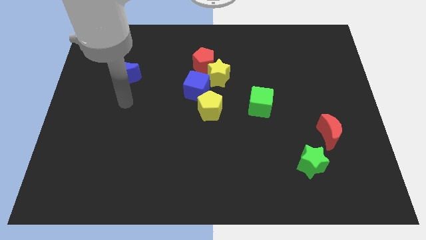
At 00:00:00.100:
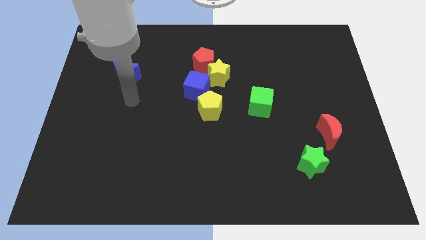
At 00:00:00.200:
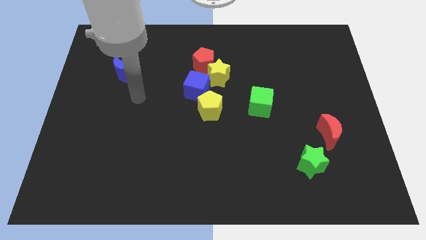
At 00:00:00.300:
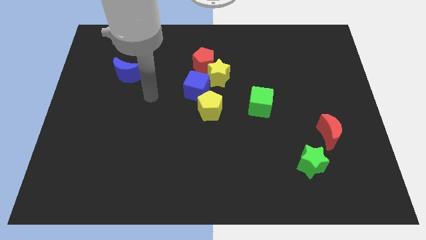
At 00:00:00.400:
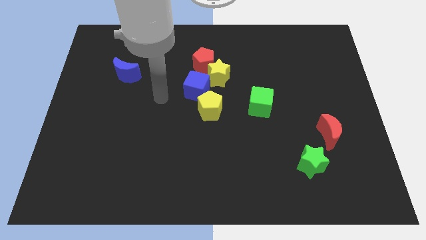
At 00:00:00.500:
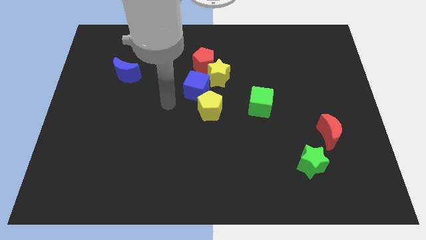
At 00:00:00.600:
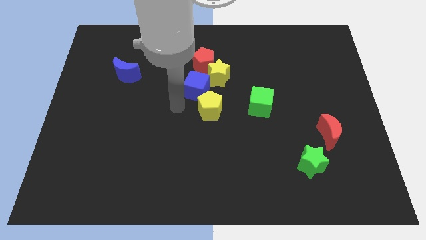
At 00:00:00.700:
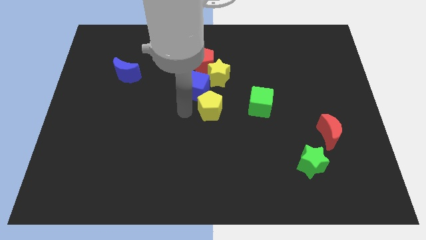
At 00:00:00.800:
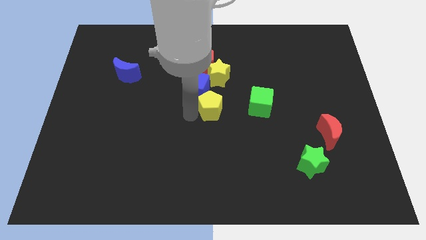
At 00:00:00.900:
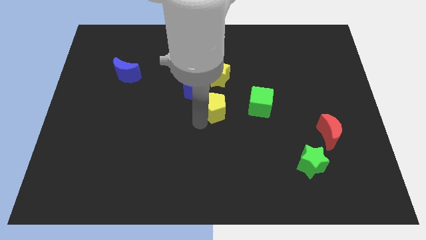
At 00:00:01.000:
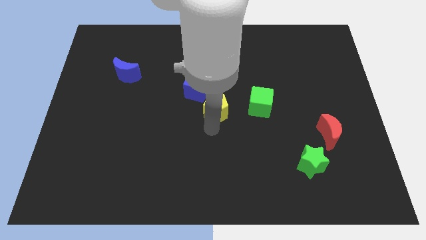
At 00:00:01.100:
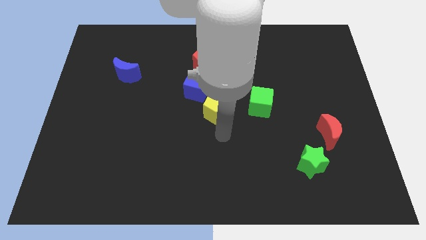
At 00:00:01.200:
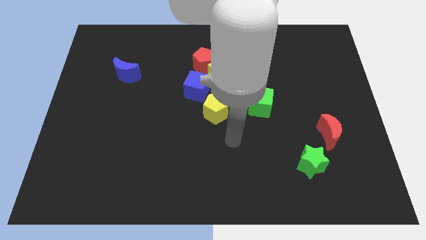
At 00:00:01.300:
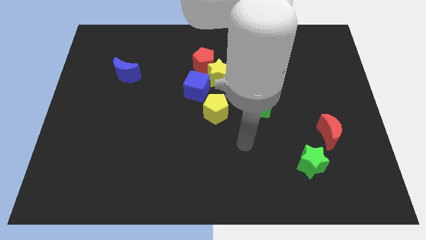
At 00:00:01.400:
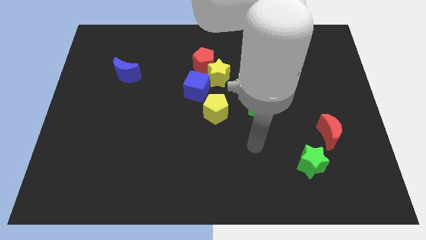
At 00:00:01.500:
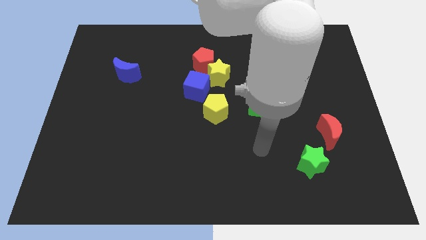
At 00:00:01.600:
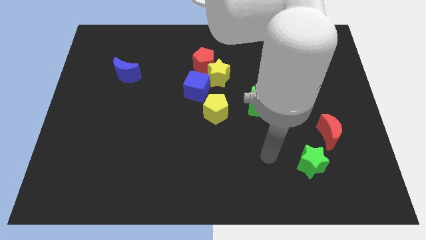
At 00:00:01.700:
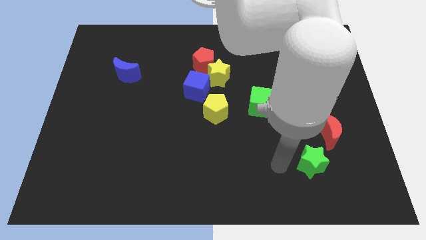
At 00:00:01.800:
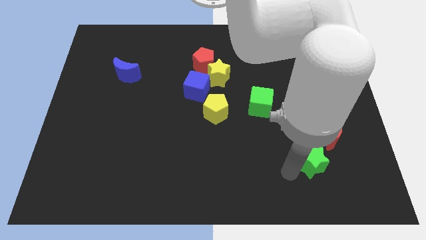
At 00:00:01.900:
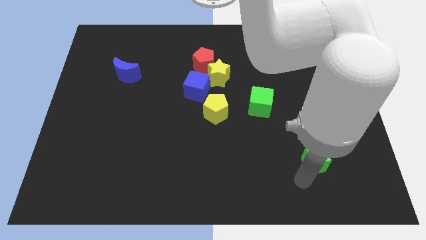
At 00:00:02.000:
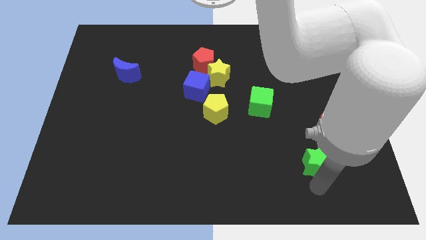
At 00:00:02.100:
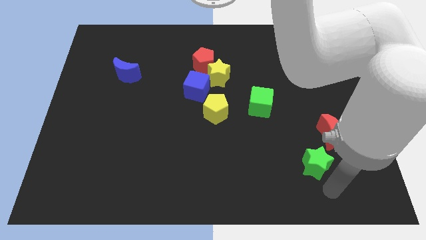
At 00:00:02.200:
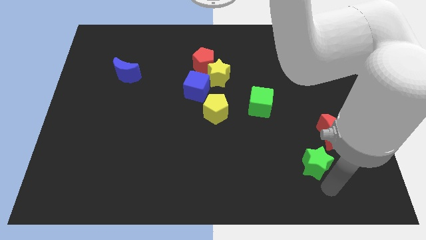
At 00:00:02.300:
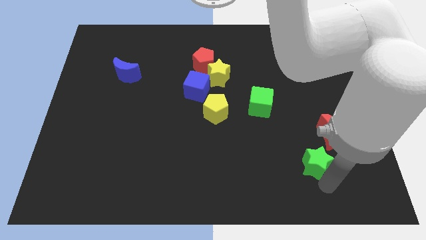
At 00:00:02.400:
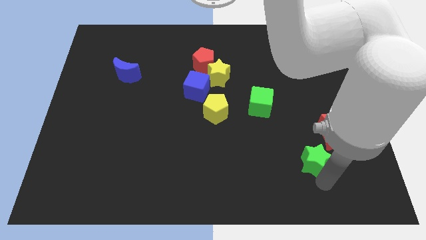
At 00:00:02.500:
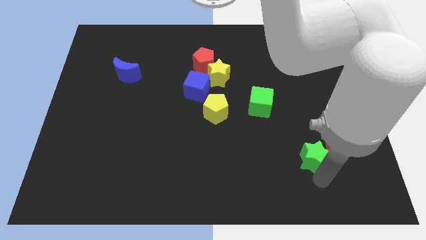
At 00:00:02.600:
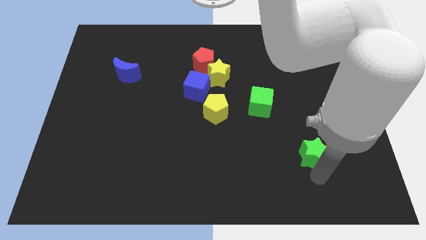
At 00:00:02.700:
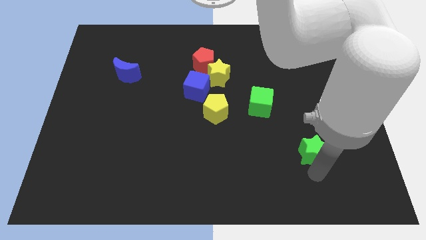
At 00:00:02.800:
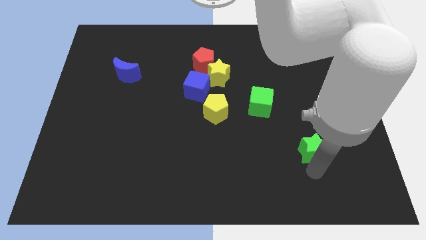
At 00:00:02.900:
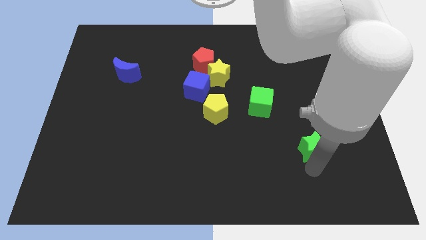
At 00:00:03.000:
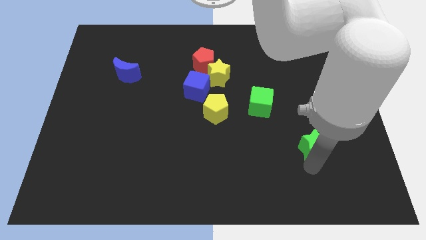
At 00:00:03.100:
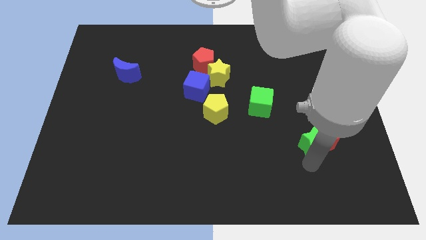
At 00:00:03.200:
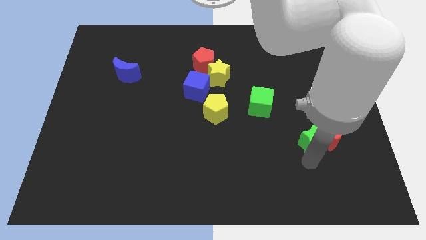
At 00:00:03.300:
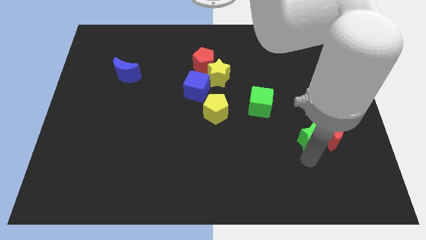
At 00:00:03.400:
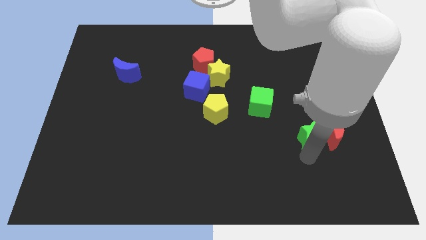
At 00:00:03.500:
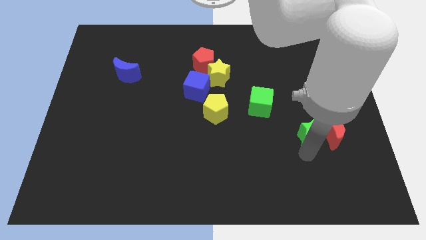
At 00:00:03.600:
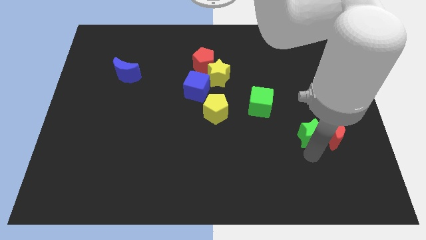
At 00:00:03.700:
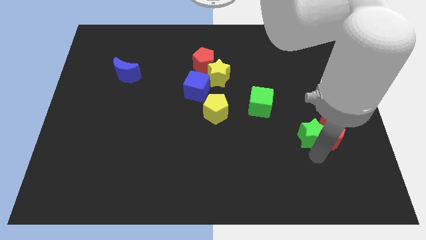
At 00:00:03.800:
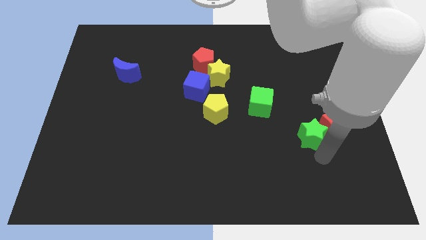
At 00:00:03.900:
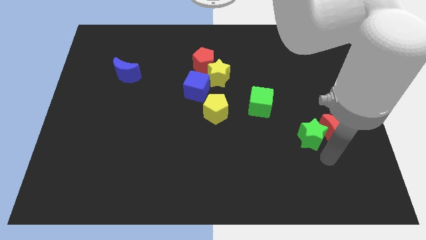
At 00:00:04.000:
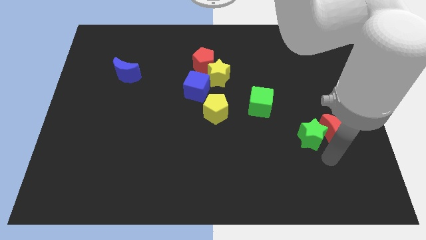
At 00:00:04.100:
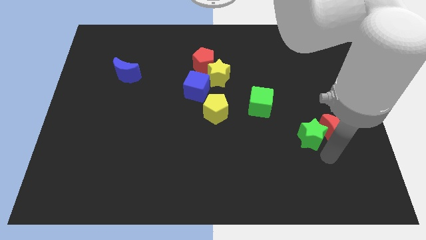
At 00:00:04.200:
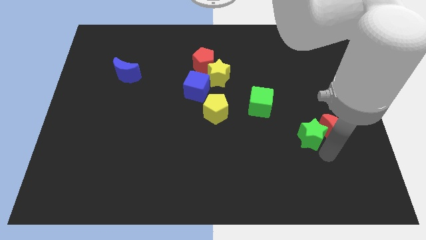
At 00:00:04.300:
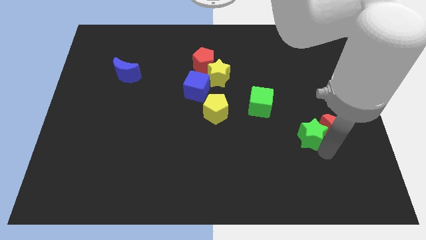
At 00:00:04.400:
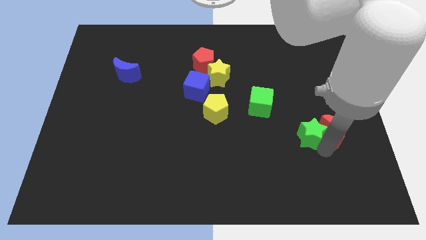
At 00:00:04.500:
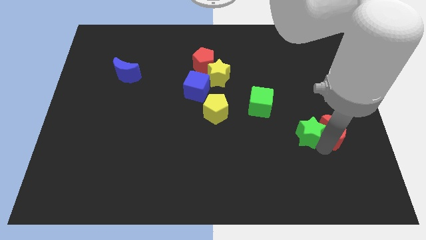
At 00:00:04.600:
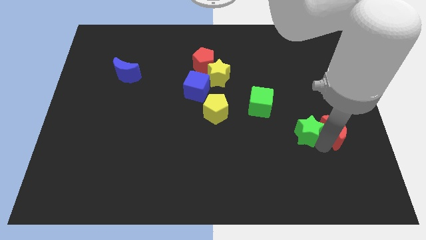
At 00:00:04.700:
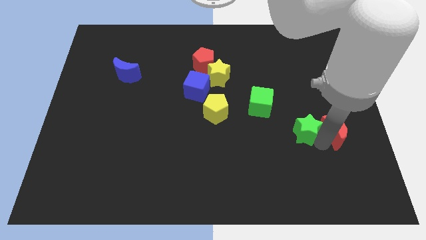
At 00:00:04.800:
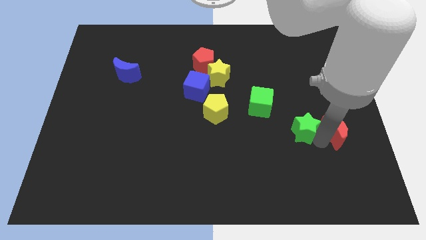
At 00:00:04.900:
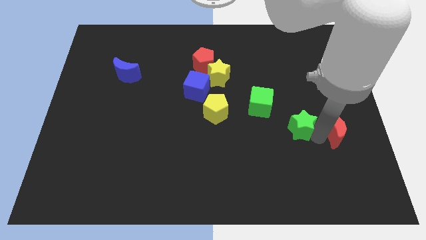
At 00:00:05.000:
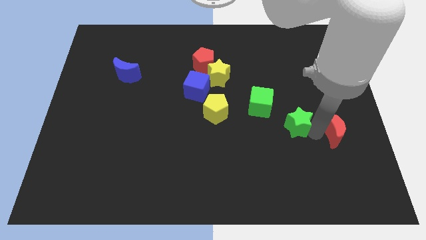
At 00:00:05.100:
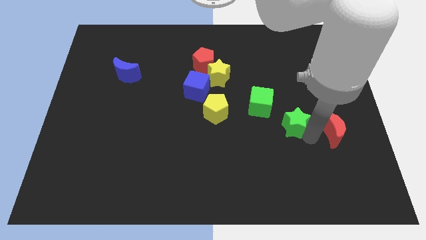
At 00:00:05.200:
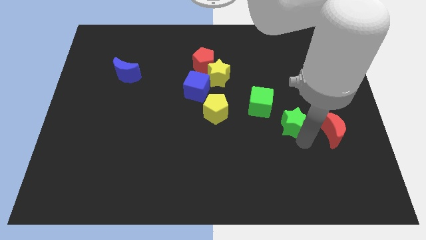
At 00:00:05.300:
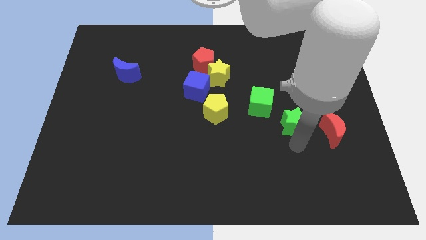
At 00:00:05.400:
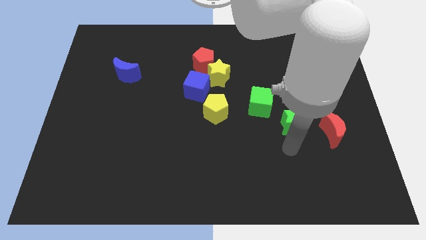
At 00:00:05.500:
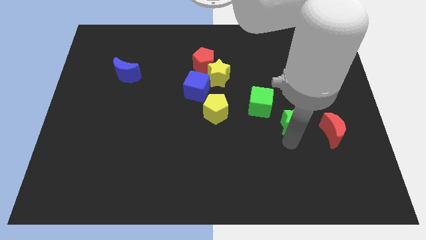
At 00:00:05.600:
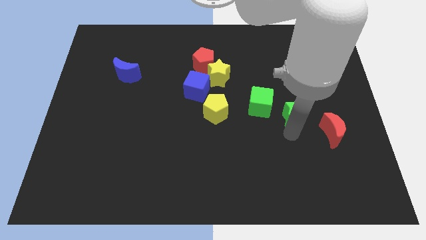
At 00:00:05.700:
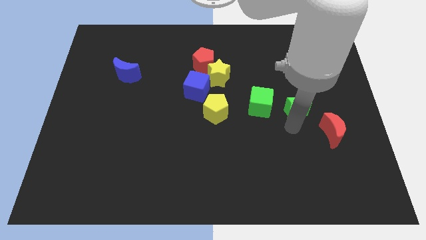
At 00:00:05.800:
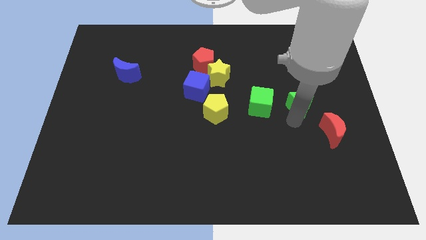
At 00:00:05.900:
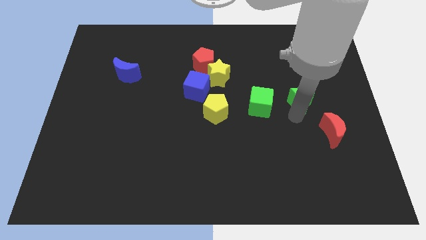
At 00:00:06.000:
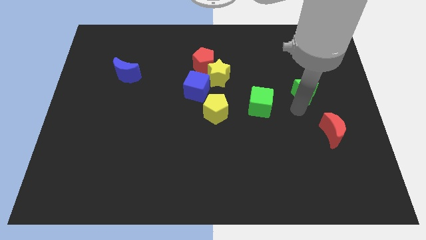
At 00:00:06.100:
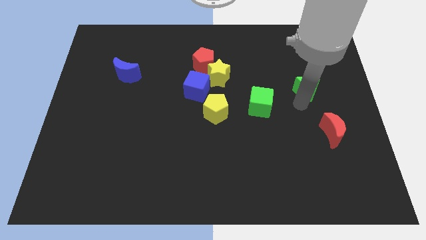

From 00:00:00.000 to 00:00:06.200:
move the green star up

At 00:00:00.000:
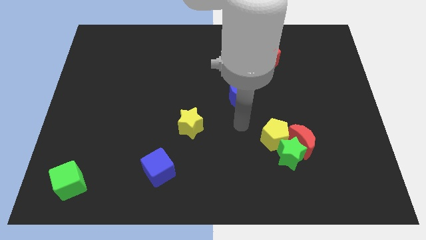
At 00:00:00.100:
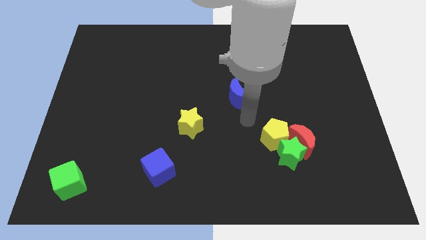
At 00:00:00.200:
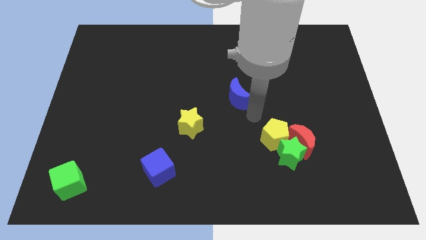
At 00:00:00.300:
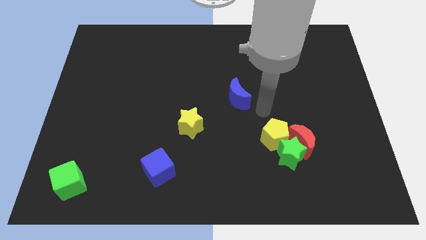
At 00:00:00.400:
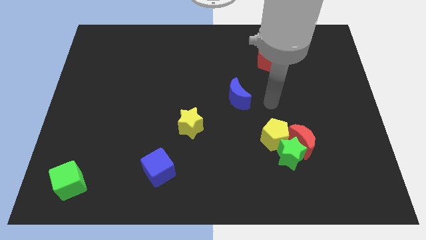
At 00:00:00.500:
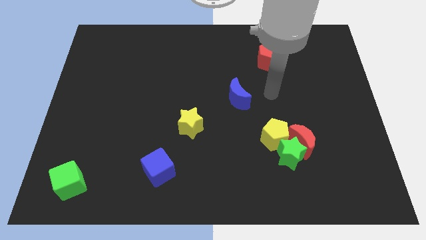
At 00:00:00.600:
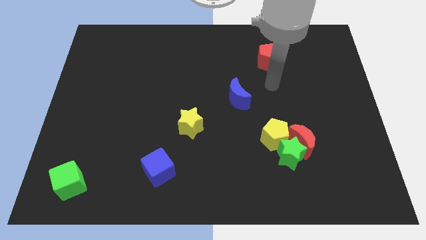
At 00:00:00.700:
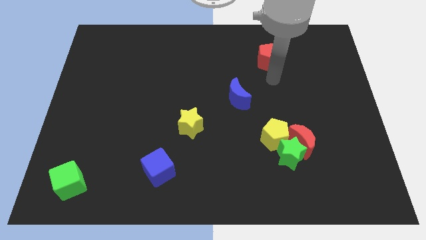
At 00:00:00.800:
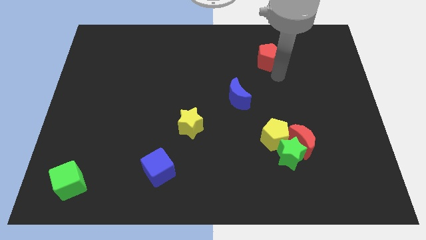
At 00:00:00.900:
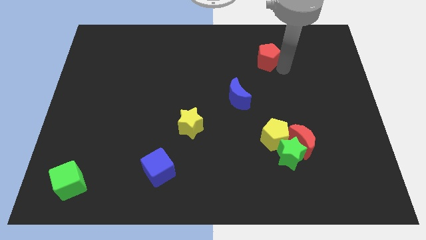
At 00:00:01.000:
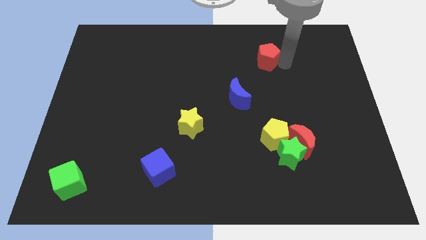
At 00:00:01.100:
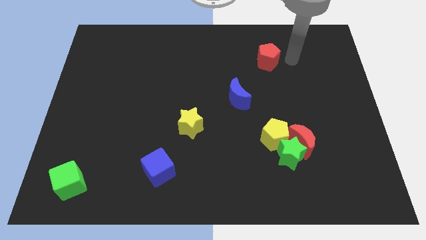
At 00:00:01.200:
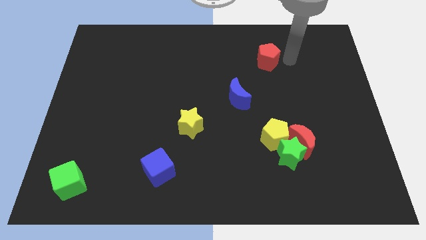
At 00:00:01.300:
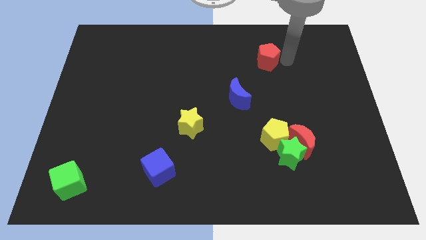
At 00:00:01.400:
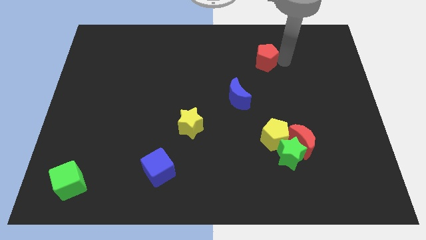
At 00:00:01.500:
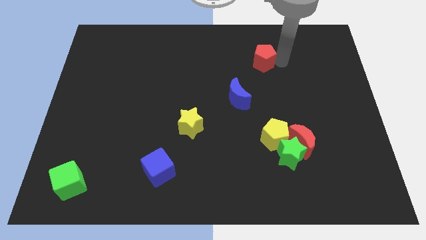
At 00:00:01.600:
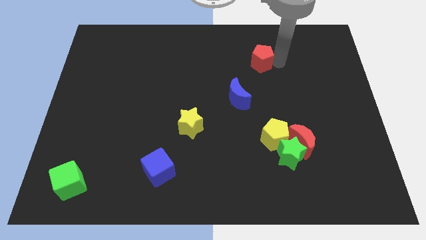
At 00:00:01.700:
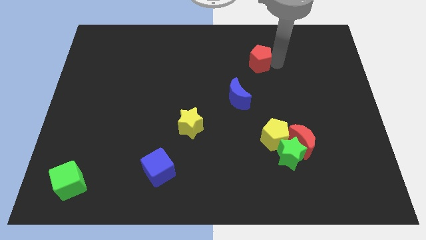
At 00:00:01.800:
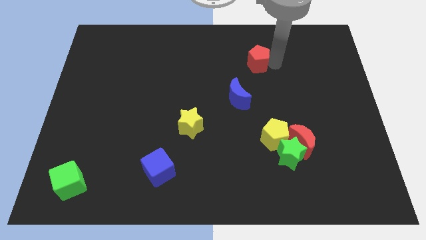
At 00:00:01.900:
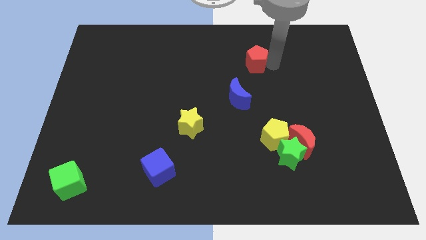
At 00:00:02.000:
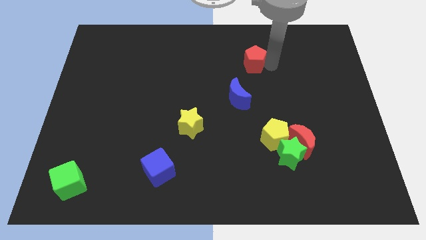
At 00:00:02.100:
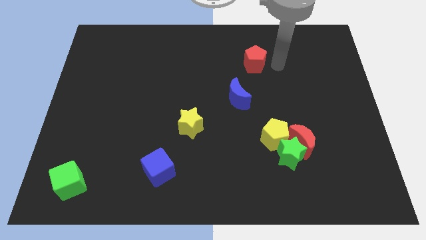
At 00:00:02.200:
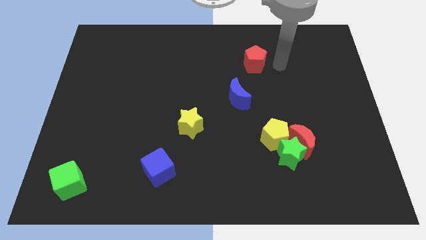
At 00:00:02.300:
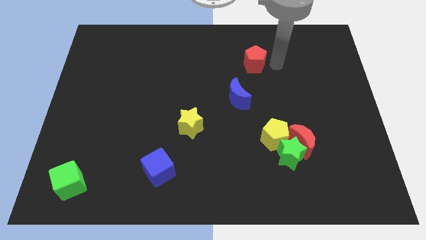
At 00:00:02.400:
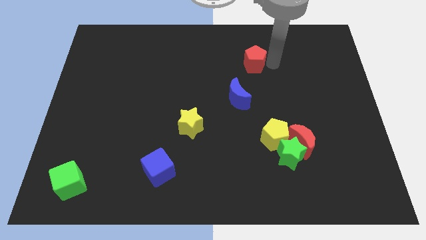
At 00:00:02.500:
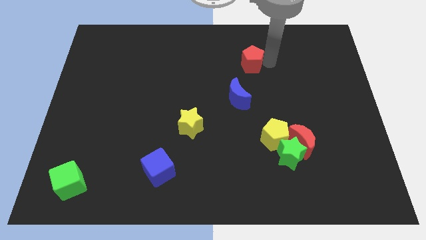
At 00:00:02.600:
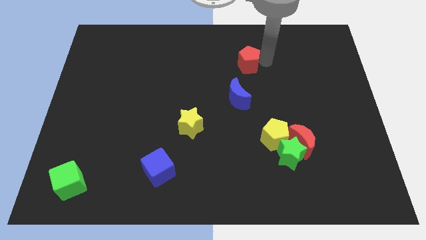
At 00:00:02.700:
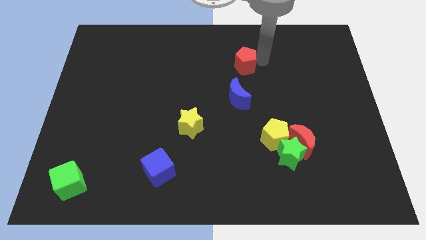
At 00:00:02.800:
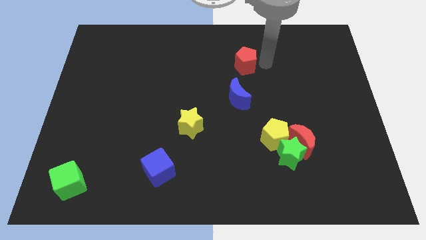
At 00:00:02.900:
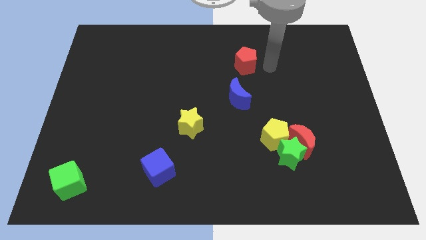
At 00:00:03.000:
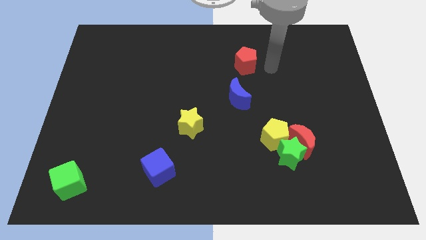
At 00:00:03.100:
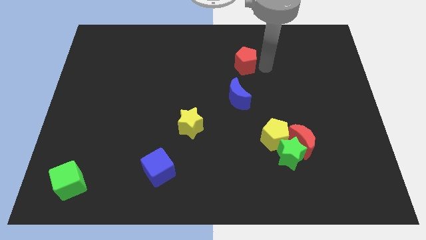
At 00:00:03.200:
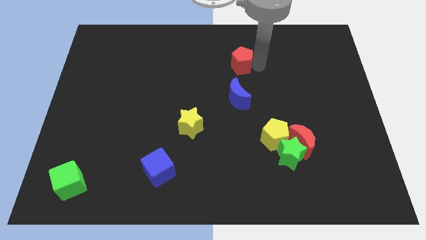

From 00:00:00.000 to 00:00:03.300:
push the red pentagon to the left somewhat
